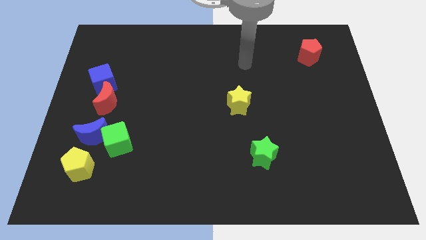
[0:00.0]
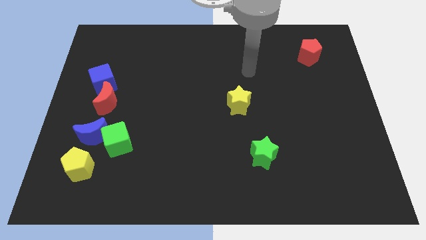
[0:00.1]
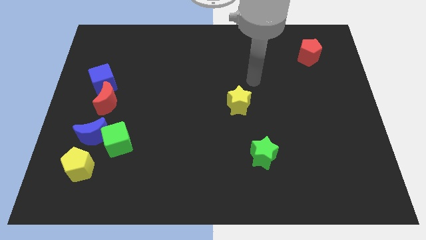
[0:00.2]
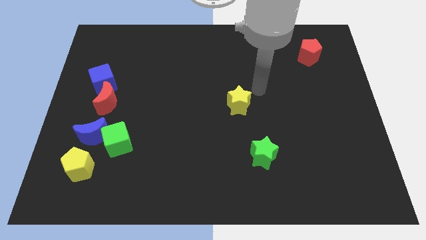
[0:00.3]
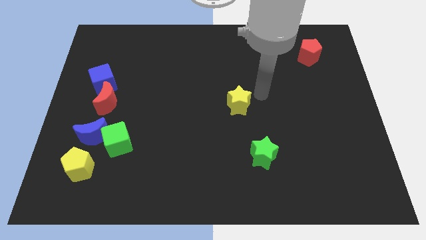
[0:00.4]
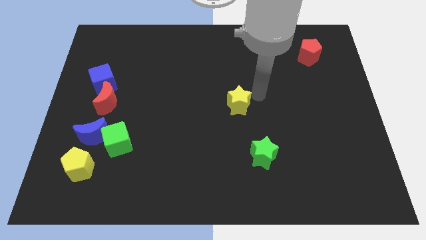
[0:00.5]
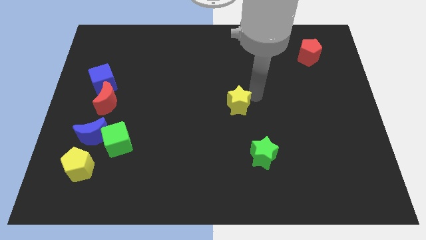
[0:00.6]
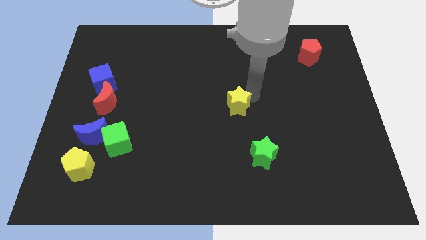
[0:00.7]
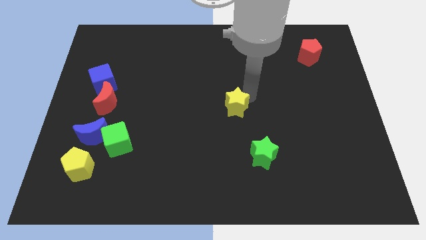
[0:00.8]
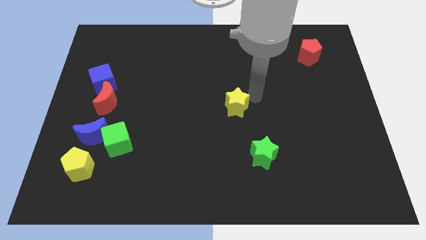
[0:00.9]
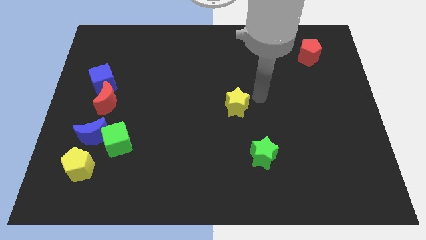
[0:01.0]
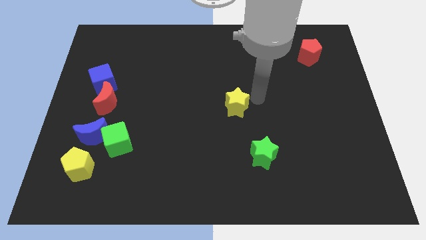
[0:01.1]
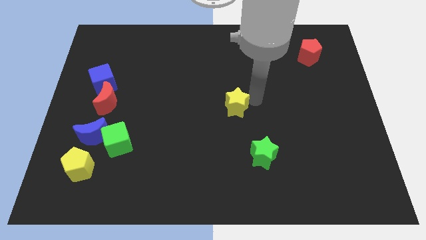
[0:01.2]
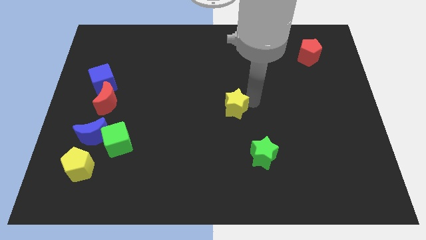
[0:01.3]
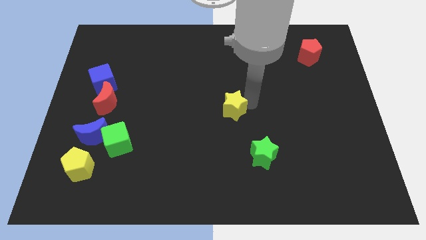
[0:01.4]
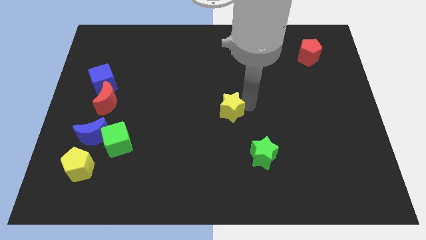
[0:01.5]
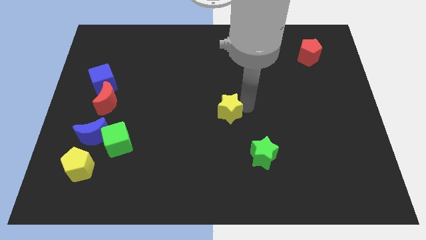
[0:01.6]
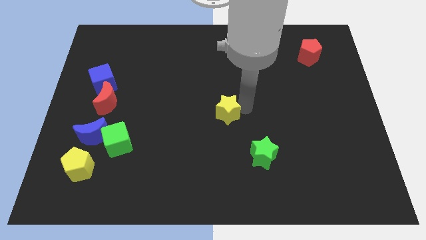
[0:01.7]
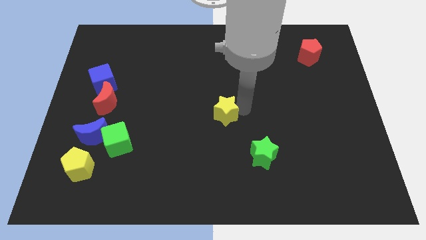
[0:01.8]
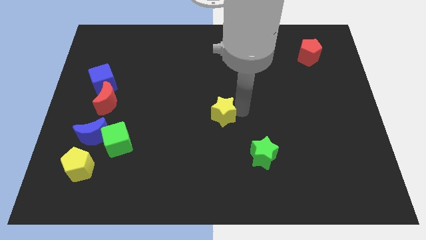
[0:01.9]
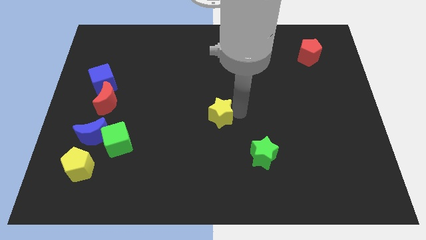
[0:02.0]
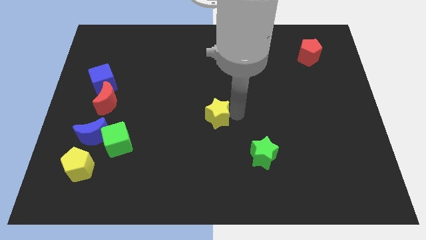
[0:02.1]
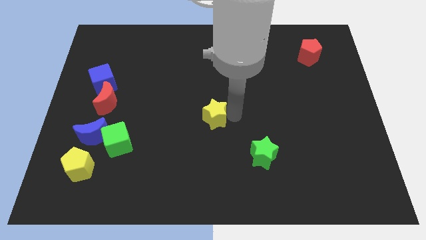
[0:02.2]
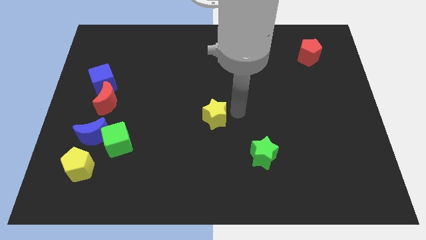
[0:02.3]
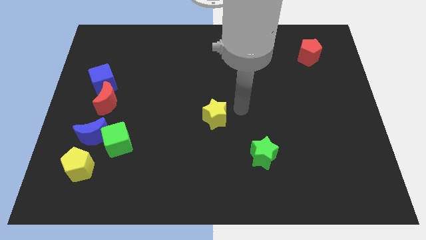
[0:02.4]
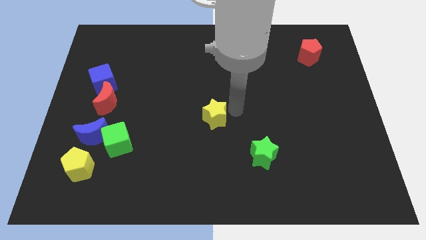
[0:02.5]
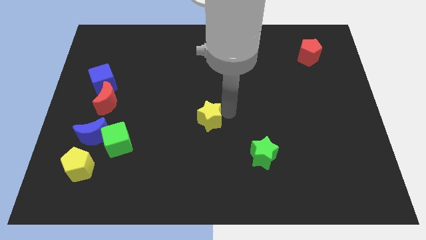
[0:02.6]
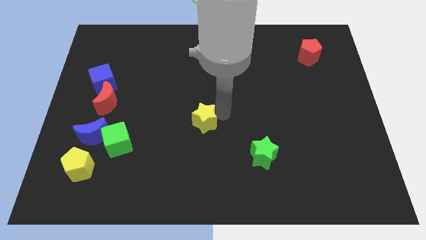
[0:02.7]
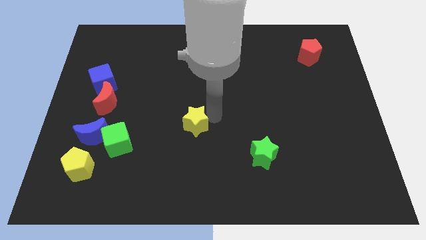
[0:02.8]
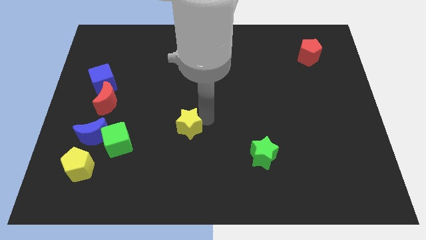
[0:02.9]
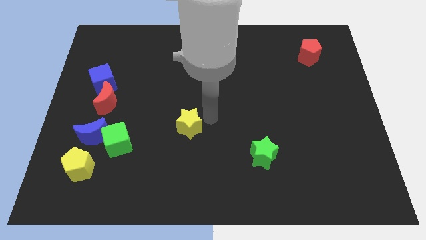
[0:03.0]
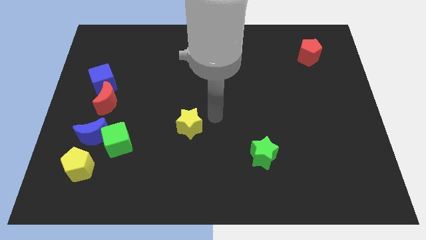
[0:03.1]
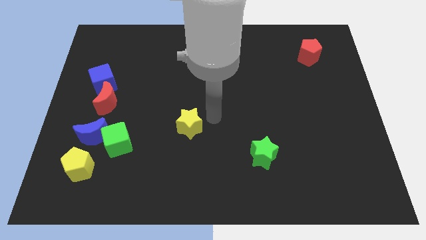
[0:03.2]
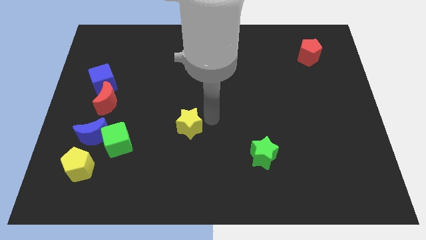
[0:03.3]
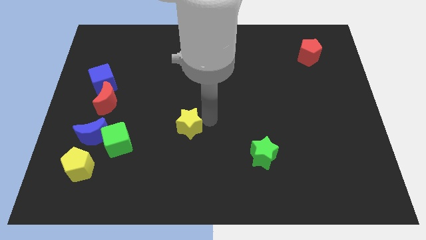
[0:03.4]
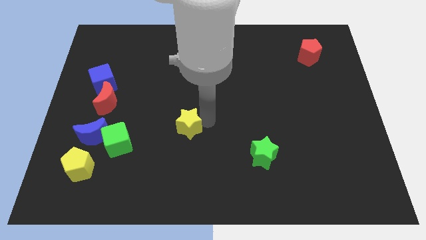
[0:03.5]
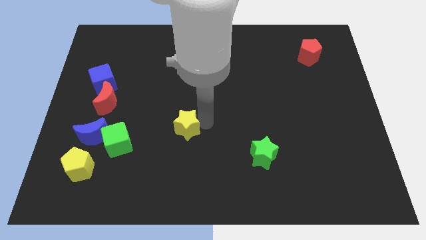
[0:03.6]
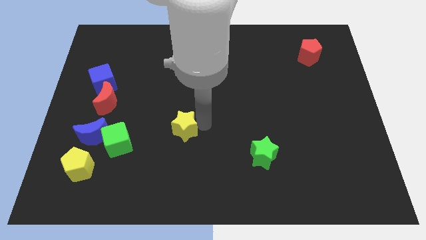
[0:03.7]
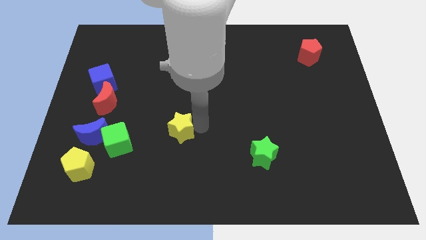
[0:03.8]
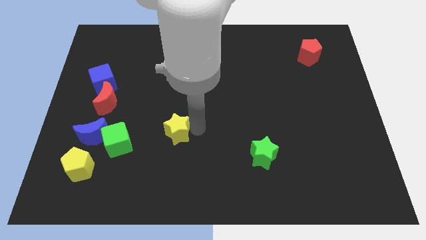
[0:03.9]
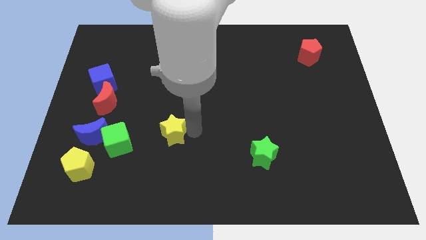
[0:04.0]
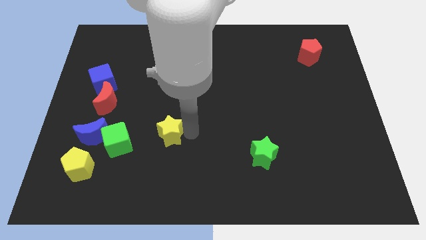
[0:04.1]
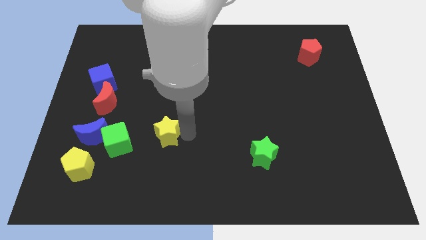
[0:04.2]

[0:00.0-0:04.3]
move the yellow star to the right side of the blue moon

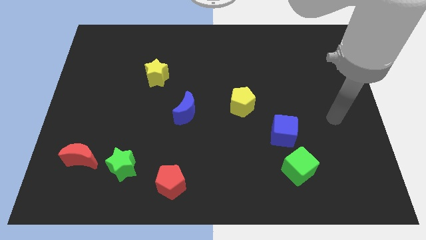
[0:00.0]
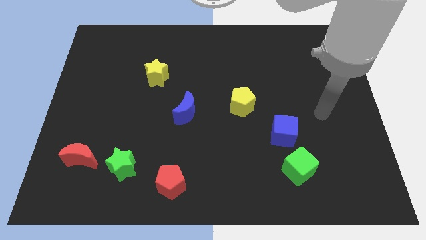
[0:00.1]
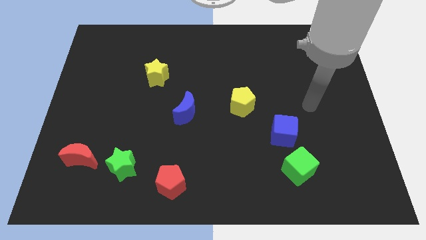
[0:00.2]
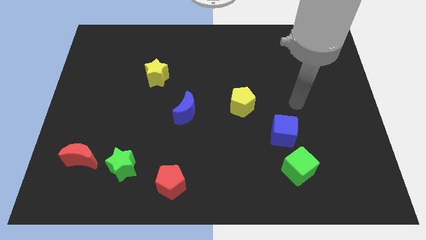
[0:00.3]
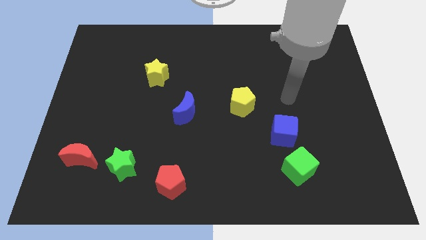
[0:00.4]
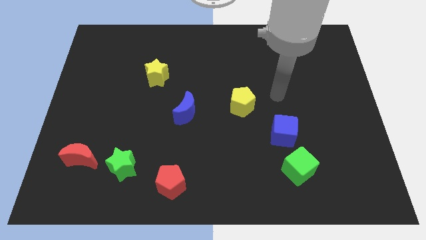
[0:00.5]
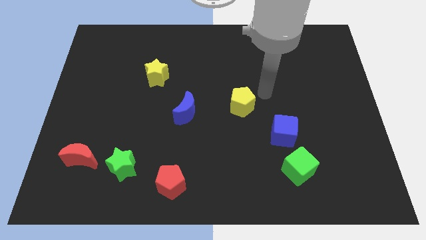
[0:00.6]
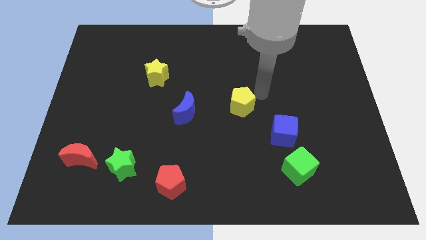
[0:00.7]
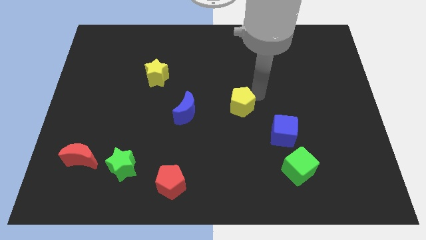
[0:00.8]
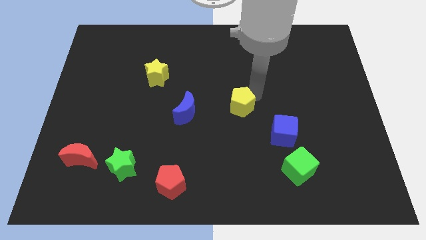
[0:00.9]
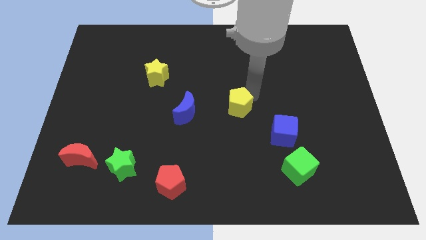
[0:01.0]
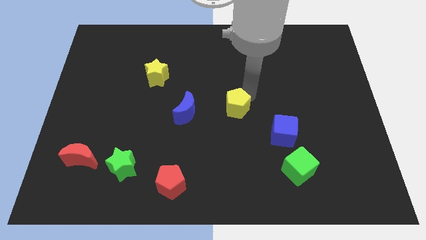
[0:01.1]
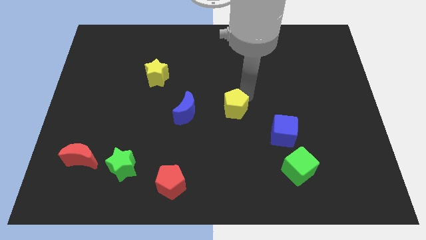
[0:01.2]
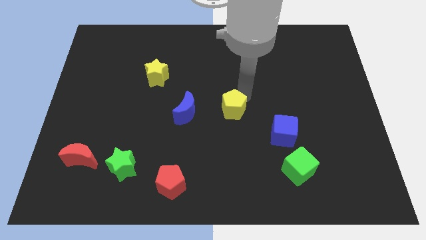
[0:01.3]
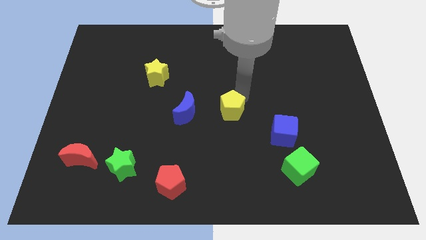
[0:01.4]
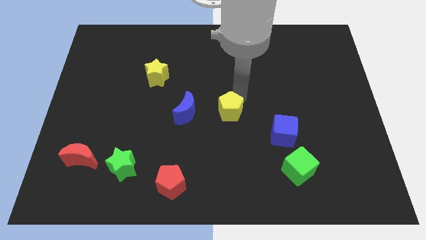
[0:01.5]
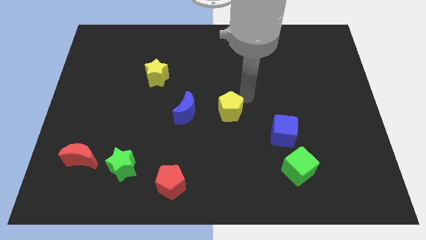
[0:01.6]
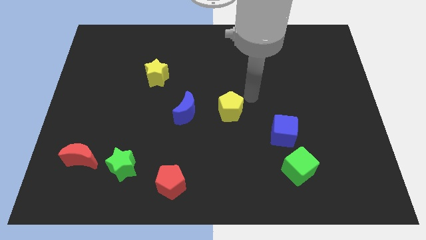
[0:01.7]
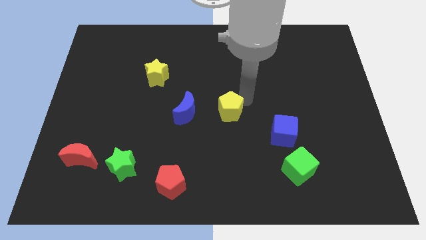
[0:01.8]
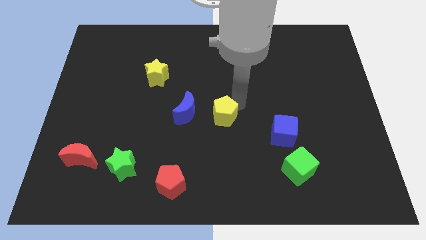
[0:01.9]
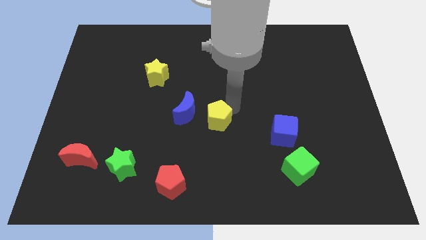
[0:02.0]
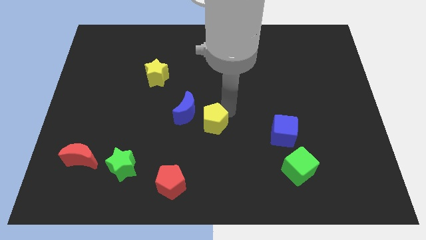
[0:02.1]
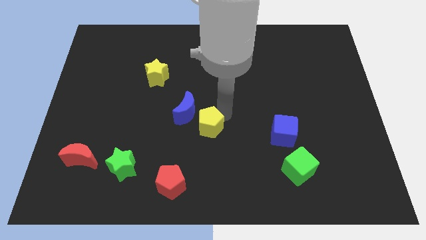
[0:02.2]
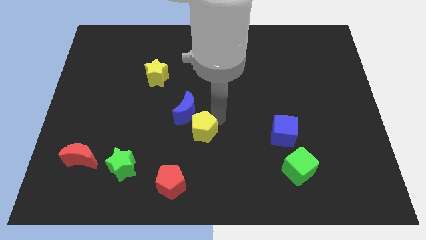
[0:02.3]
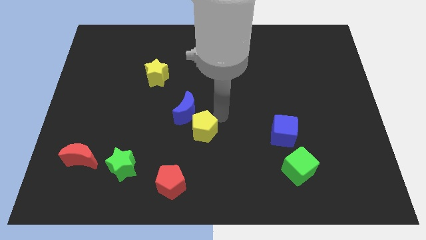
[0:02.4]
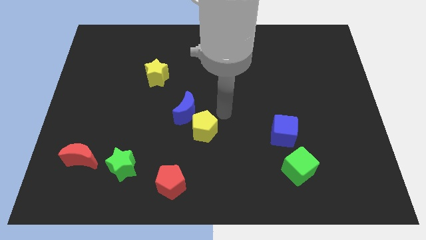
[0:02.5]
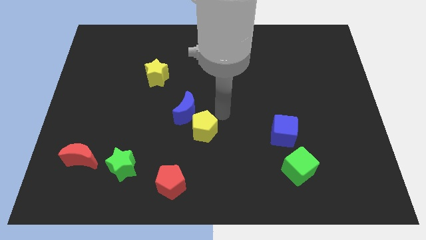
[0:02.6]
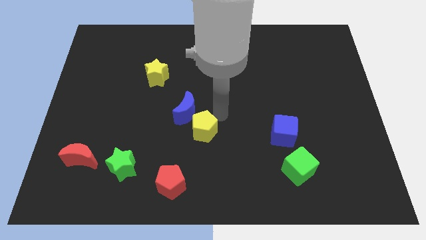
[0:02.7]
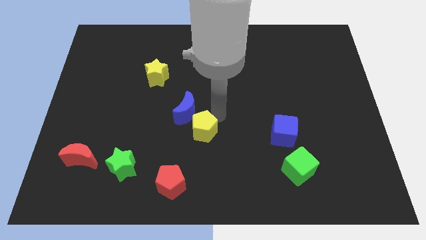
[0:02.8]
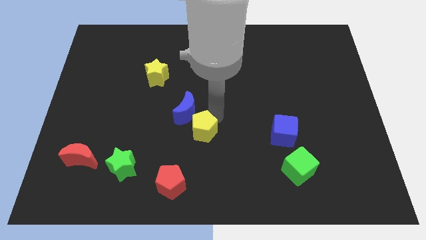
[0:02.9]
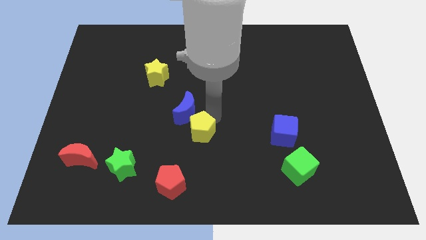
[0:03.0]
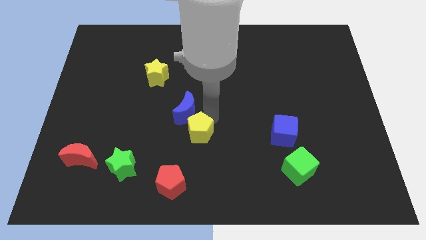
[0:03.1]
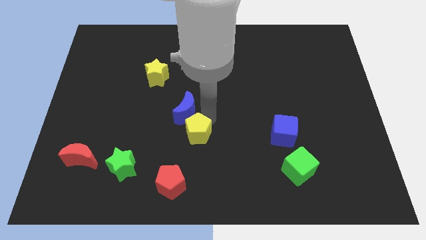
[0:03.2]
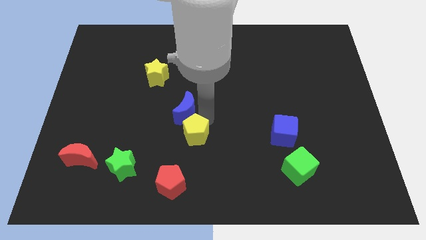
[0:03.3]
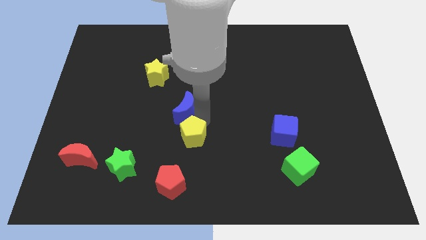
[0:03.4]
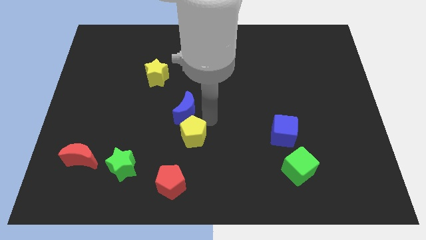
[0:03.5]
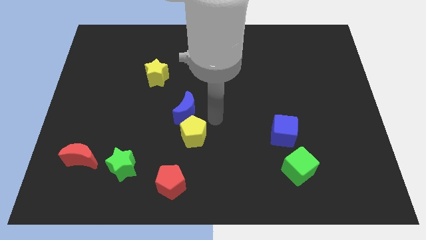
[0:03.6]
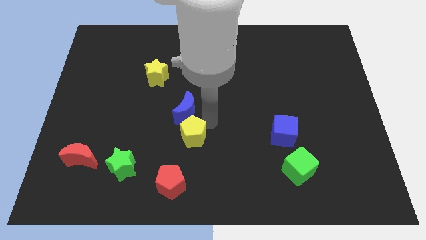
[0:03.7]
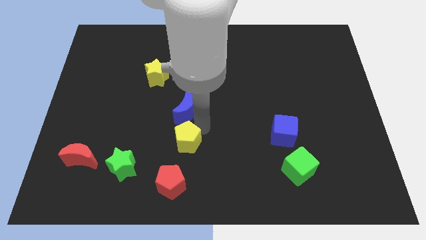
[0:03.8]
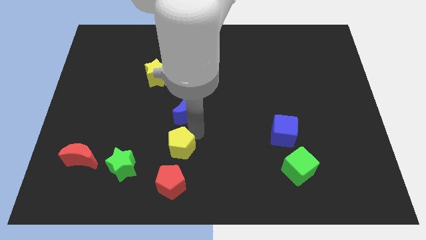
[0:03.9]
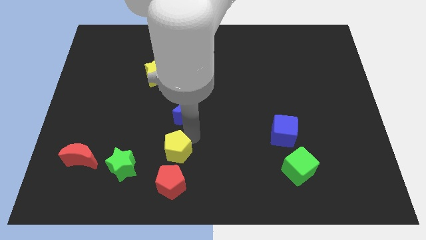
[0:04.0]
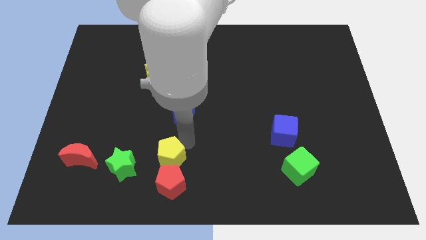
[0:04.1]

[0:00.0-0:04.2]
push the yellow pentagon to the top left side of the red pentagon
